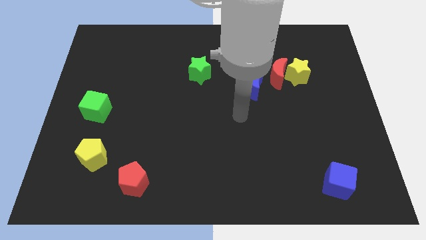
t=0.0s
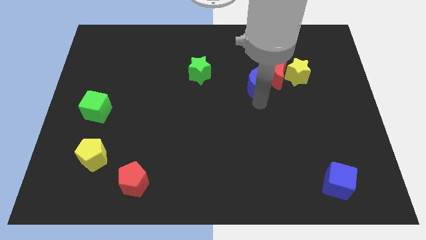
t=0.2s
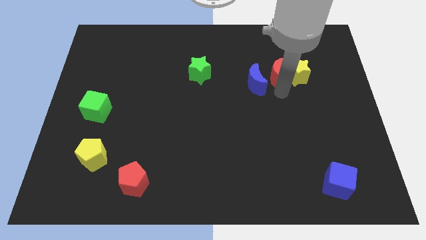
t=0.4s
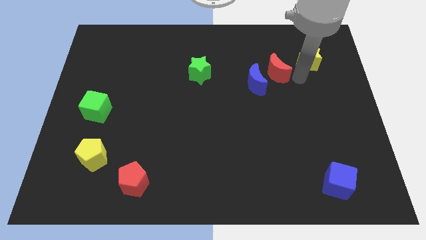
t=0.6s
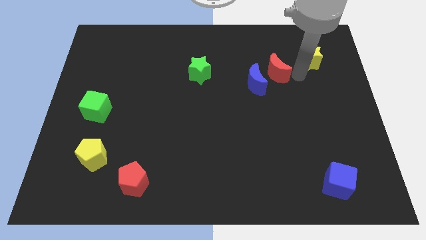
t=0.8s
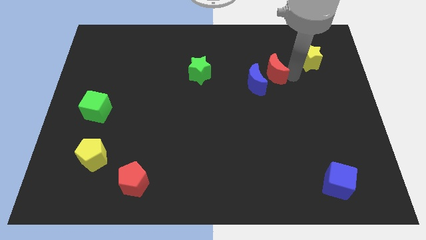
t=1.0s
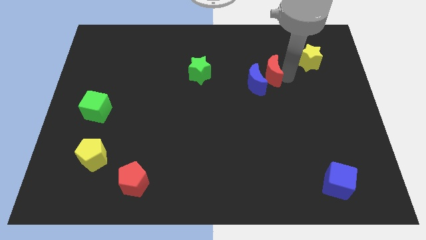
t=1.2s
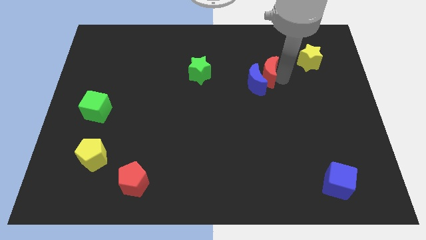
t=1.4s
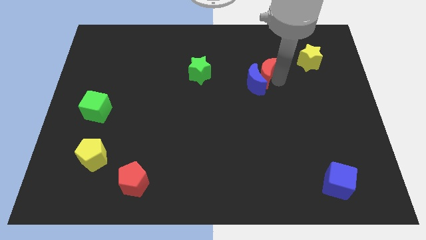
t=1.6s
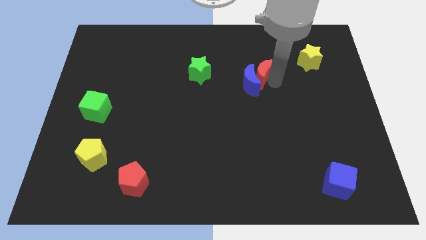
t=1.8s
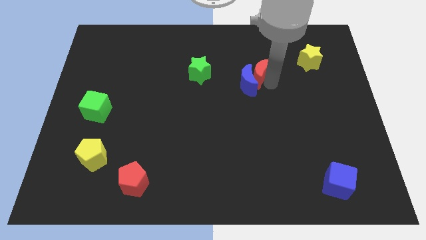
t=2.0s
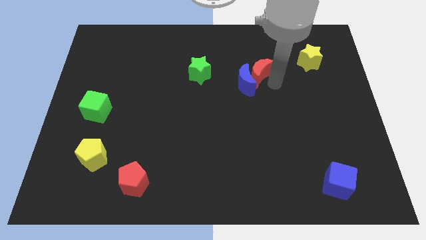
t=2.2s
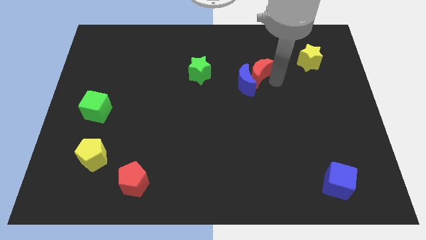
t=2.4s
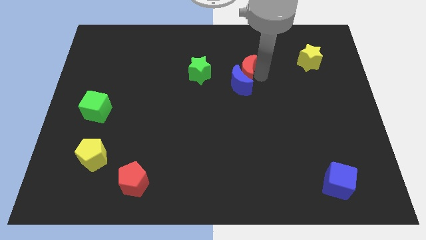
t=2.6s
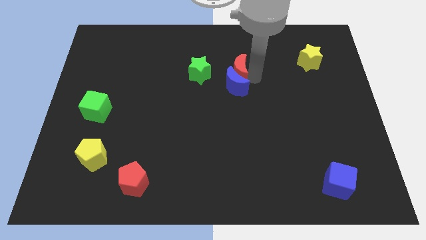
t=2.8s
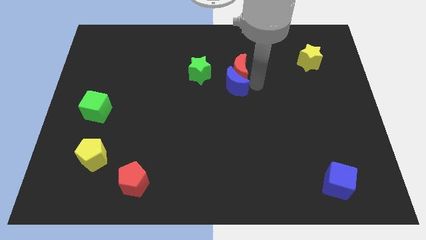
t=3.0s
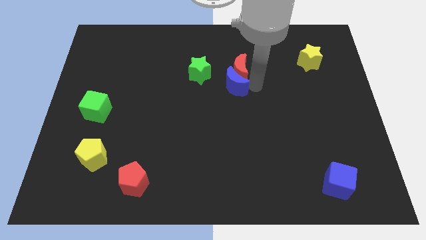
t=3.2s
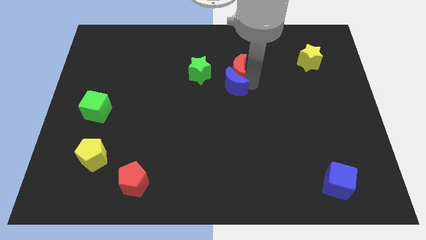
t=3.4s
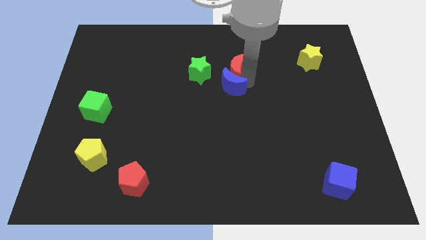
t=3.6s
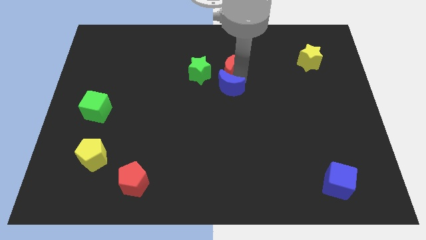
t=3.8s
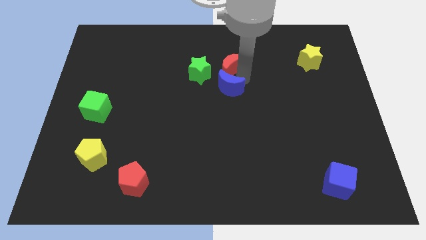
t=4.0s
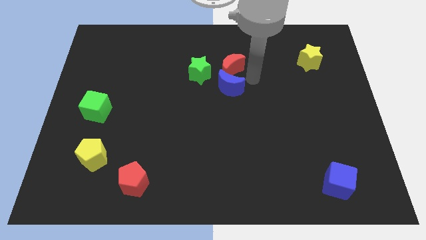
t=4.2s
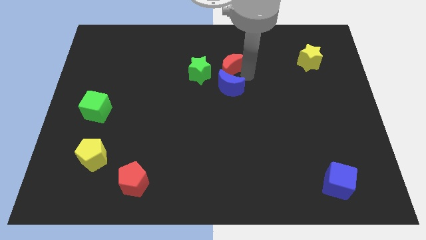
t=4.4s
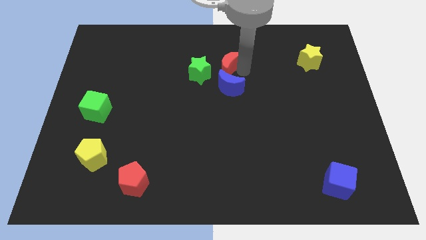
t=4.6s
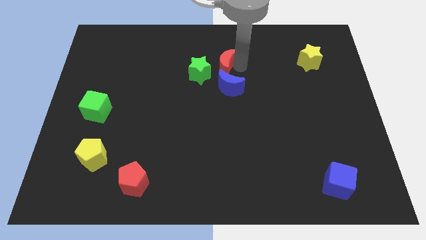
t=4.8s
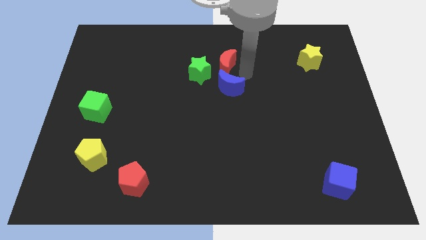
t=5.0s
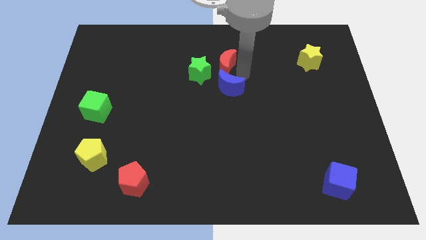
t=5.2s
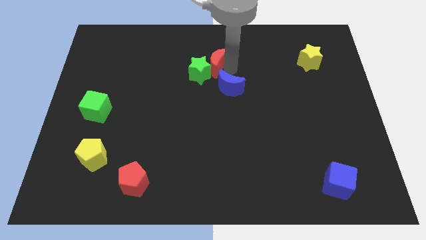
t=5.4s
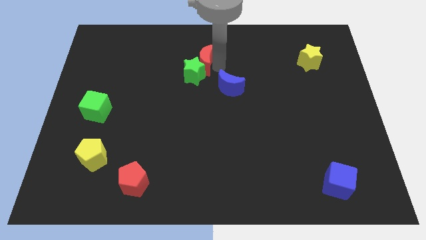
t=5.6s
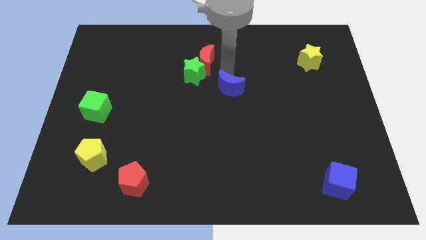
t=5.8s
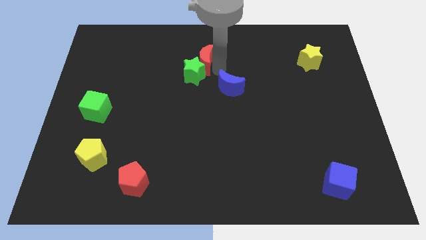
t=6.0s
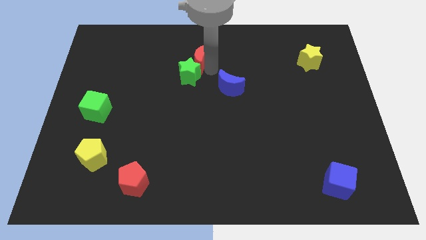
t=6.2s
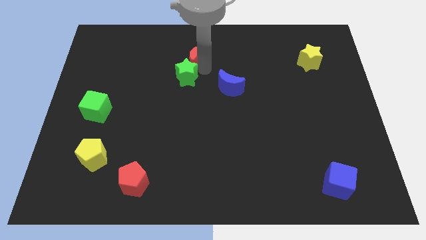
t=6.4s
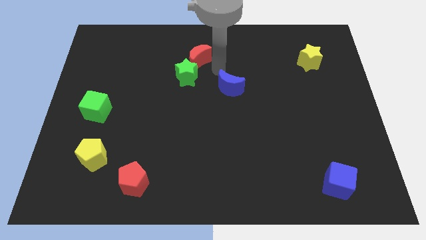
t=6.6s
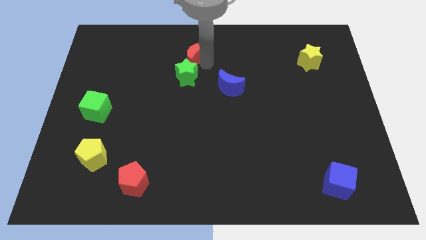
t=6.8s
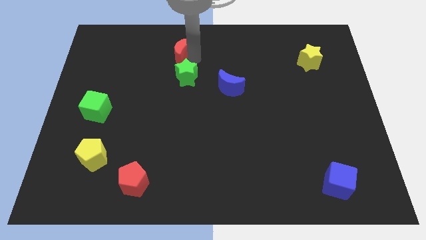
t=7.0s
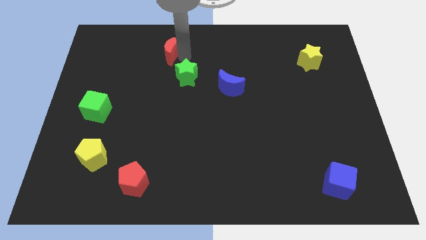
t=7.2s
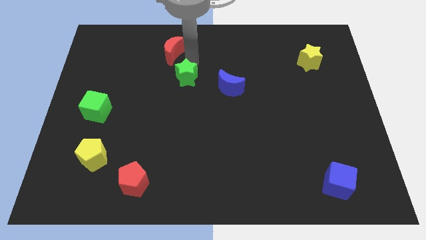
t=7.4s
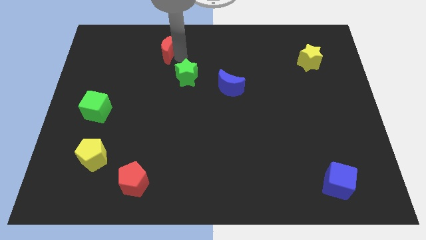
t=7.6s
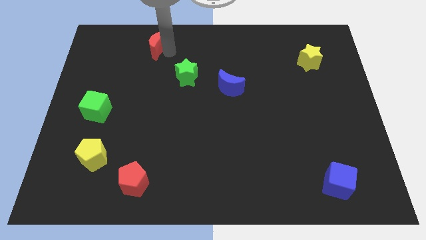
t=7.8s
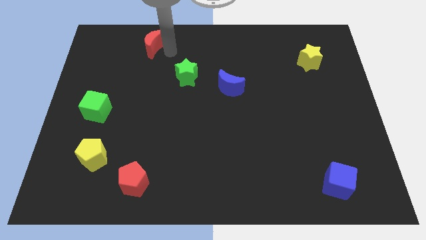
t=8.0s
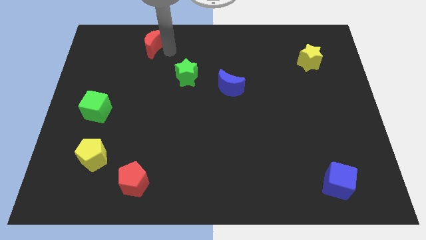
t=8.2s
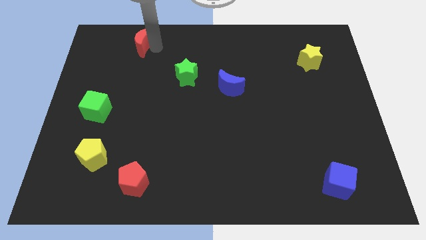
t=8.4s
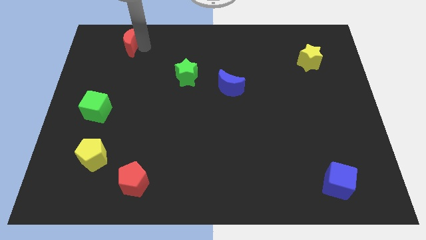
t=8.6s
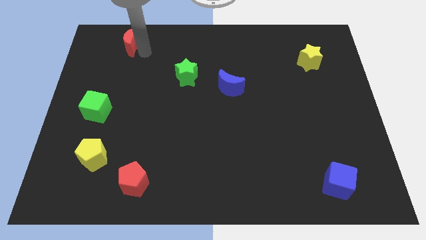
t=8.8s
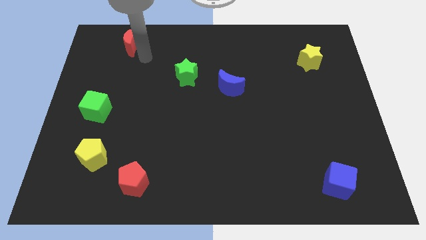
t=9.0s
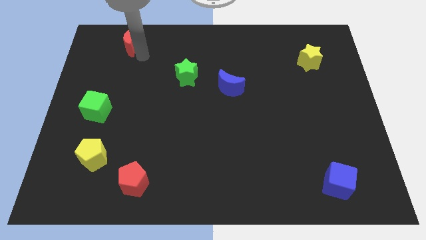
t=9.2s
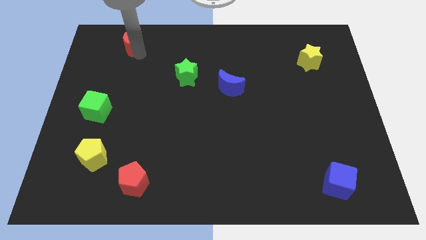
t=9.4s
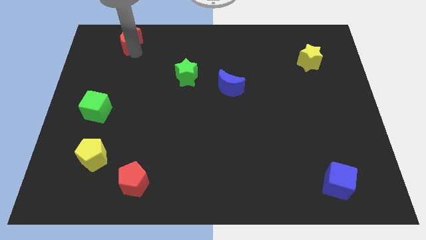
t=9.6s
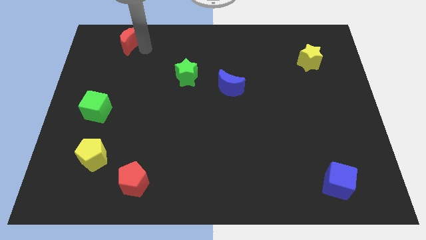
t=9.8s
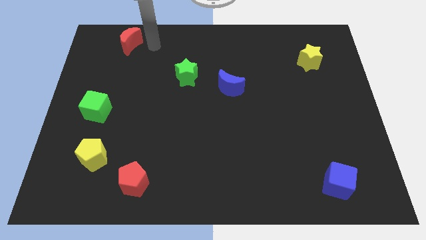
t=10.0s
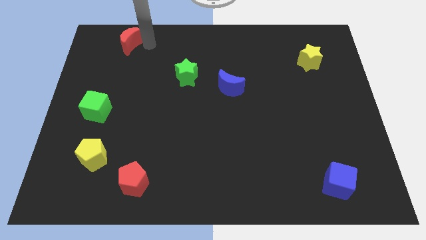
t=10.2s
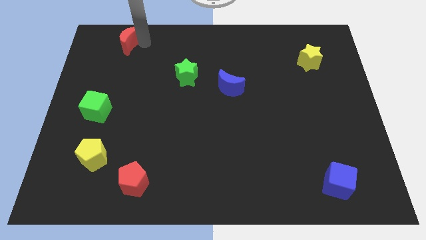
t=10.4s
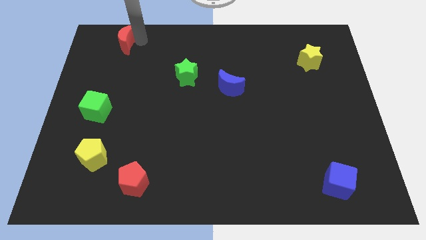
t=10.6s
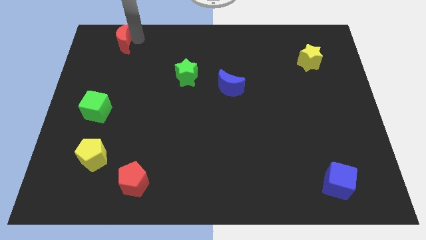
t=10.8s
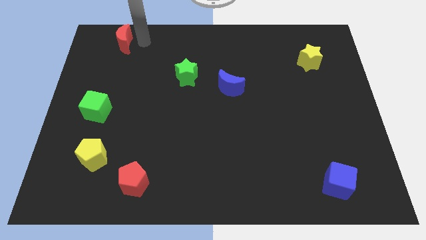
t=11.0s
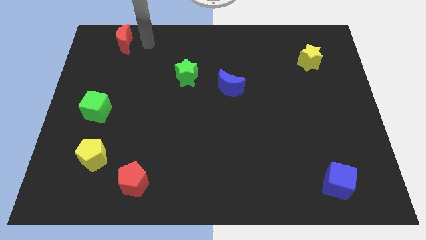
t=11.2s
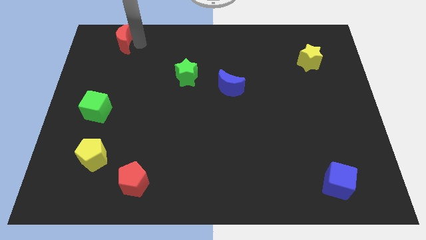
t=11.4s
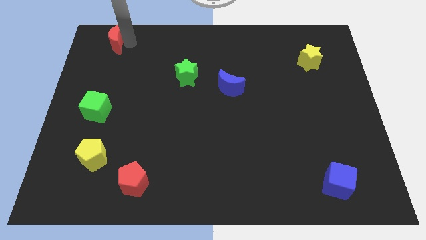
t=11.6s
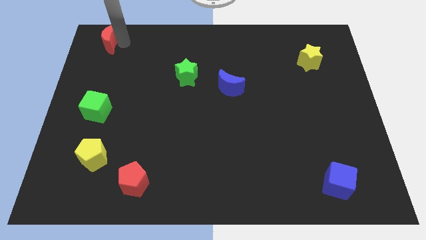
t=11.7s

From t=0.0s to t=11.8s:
push the red moon to the top left corner

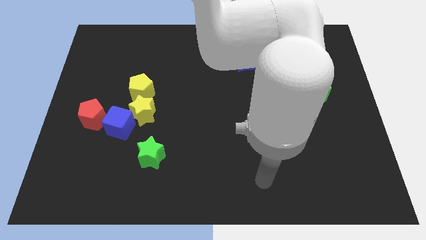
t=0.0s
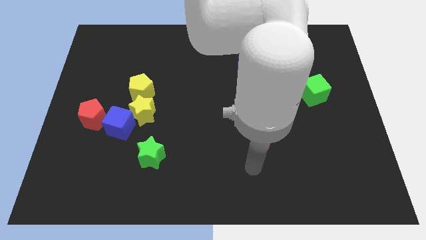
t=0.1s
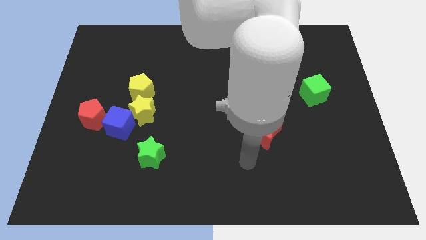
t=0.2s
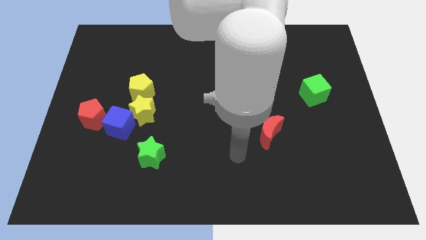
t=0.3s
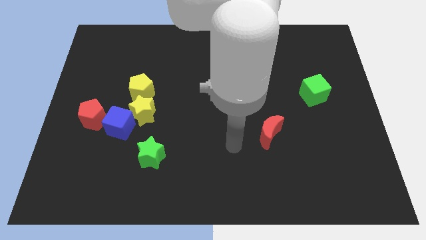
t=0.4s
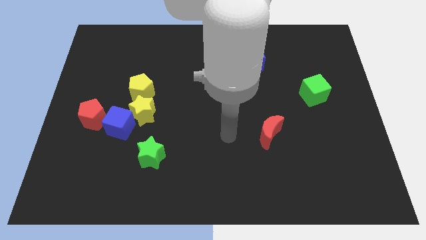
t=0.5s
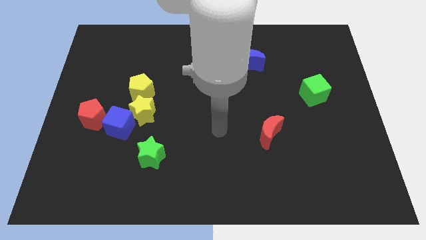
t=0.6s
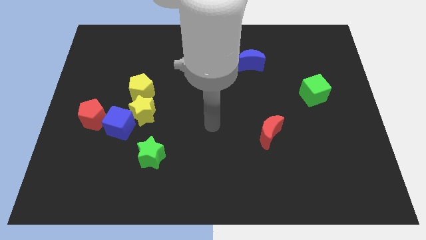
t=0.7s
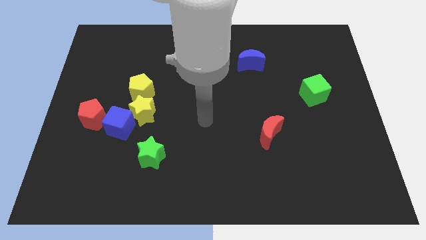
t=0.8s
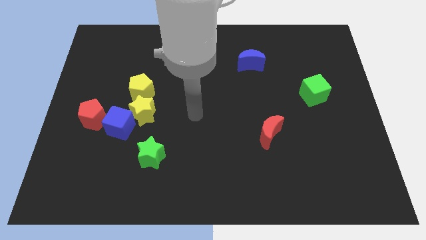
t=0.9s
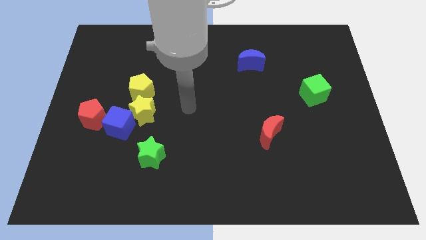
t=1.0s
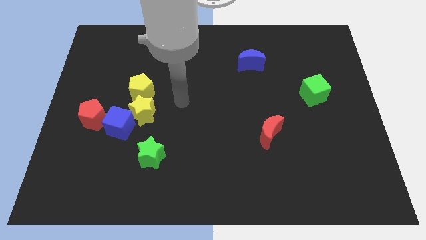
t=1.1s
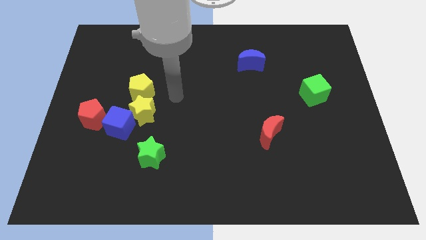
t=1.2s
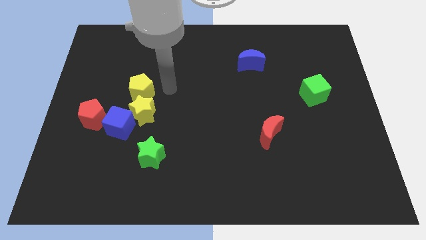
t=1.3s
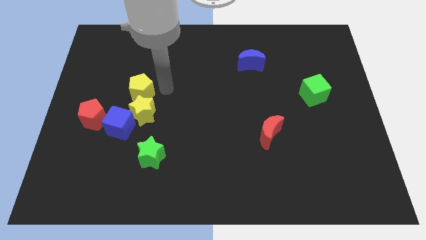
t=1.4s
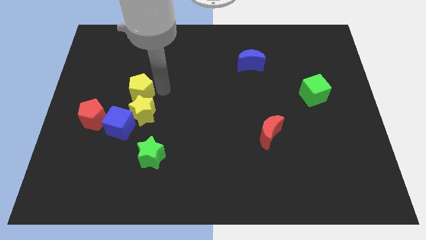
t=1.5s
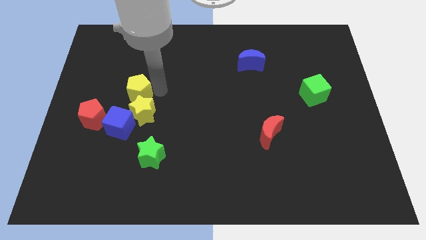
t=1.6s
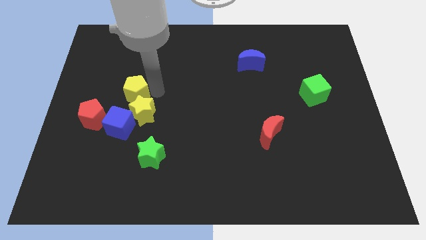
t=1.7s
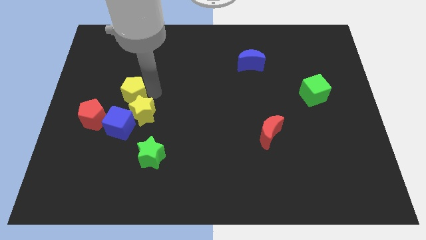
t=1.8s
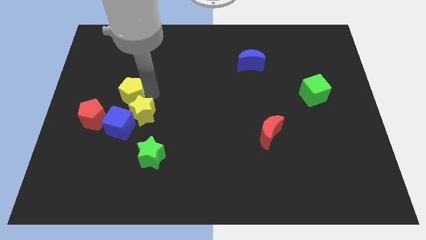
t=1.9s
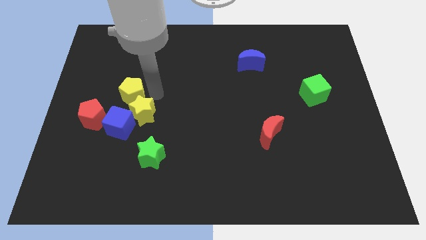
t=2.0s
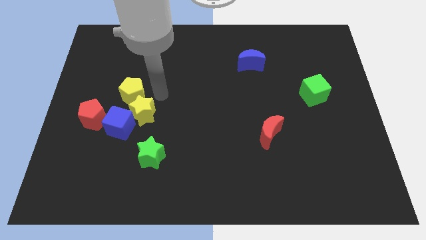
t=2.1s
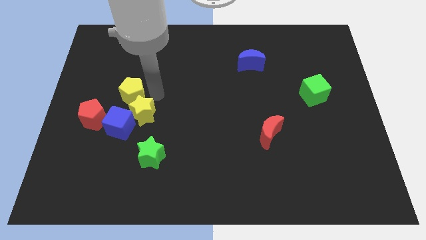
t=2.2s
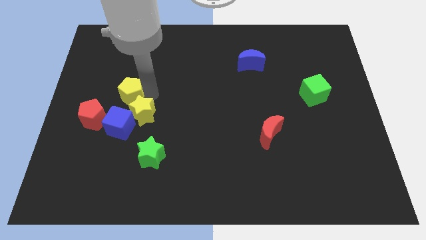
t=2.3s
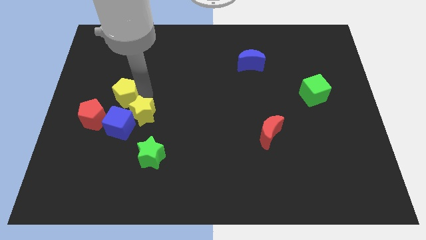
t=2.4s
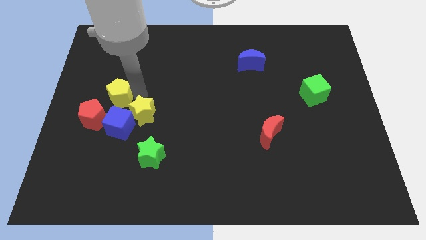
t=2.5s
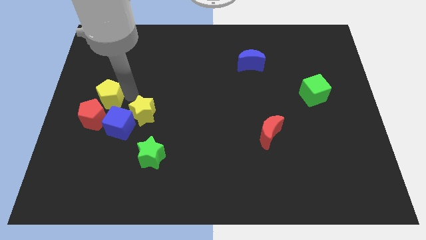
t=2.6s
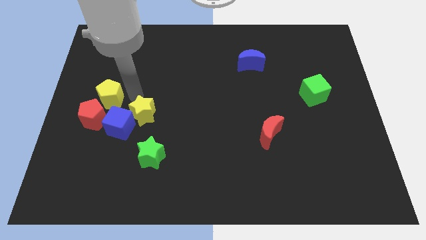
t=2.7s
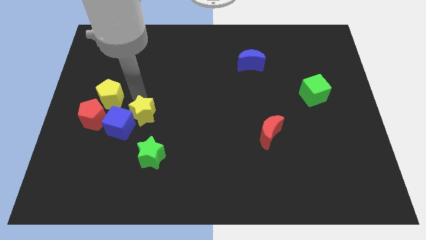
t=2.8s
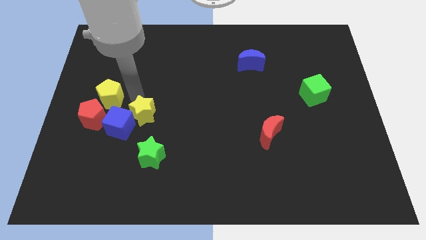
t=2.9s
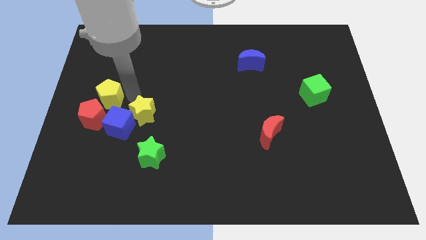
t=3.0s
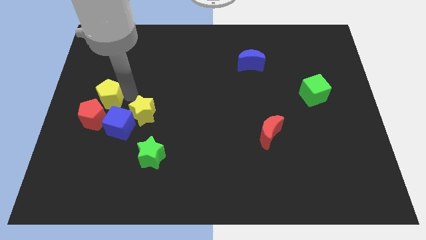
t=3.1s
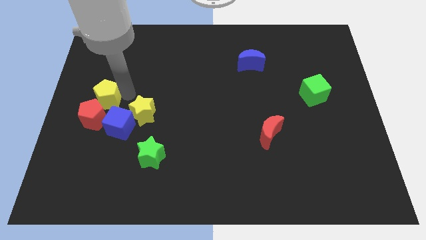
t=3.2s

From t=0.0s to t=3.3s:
move the yellow pentagon to the left side of the board
